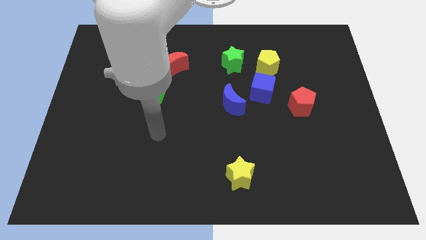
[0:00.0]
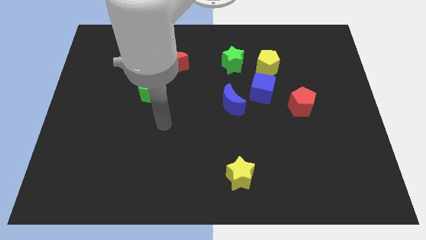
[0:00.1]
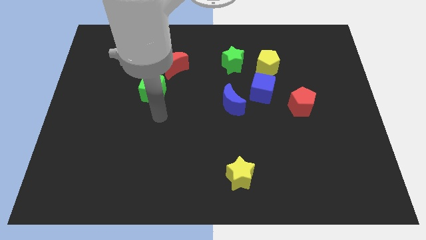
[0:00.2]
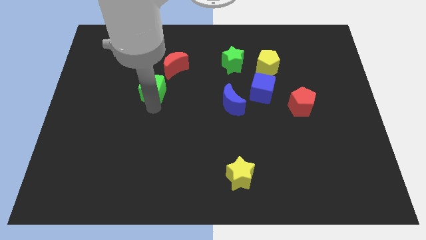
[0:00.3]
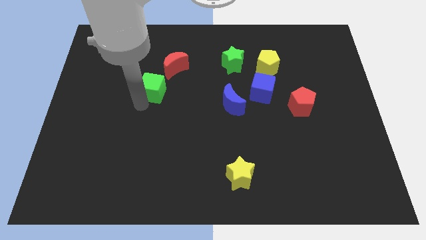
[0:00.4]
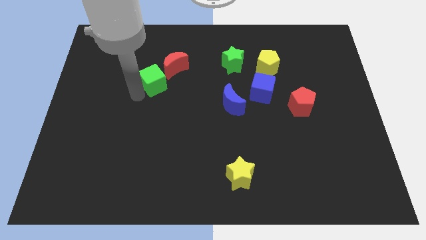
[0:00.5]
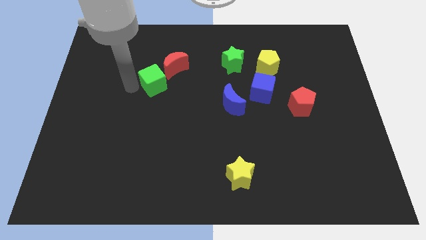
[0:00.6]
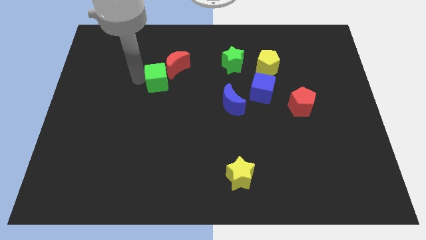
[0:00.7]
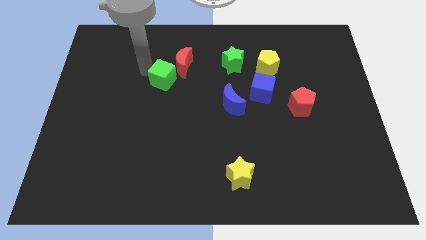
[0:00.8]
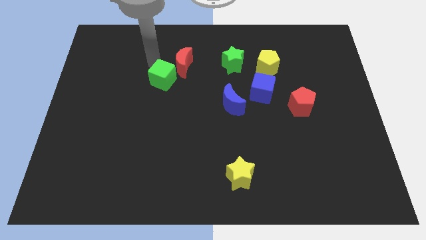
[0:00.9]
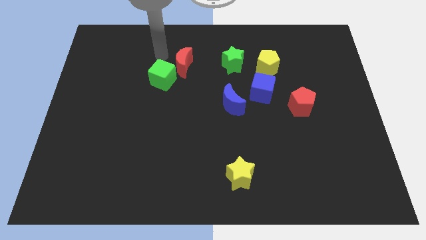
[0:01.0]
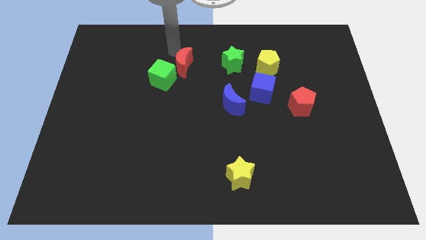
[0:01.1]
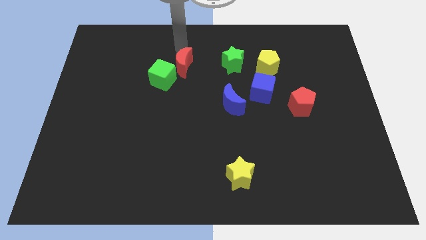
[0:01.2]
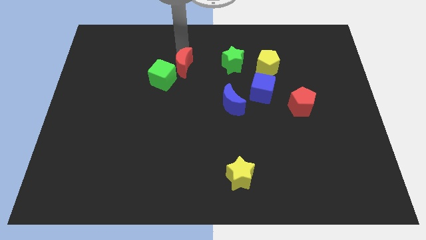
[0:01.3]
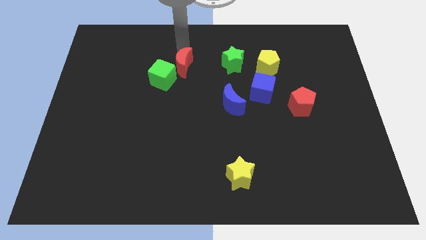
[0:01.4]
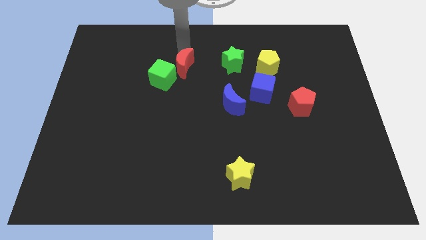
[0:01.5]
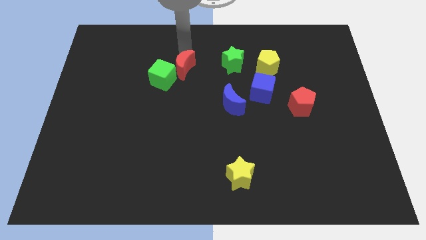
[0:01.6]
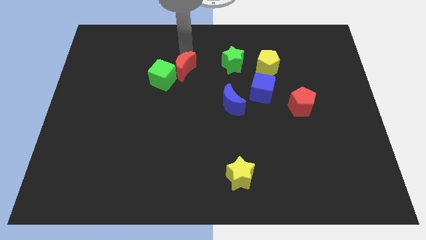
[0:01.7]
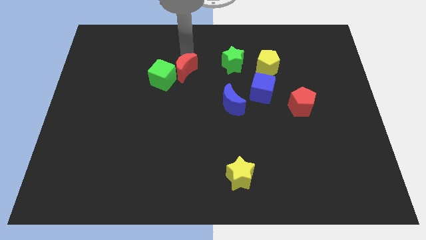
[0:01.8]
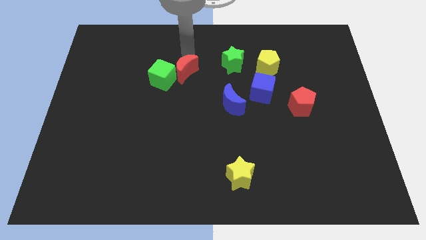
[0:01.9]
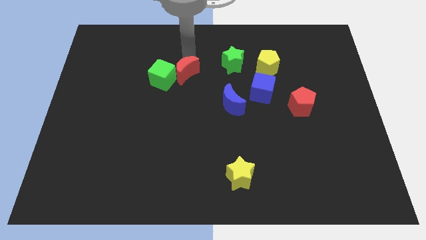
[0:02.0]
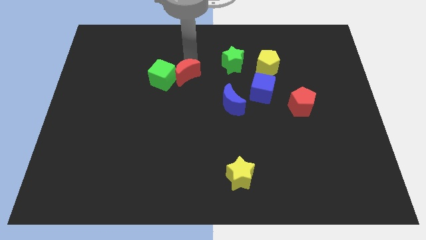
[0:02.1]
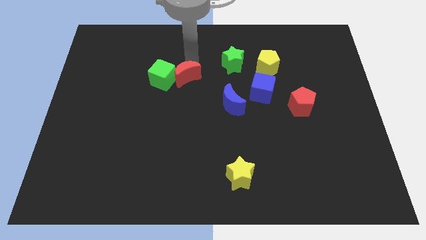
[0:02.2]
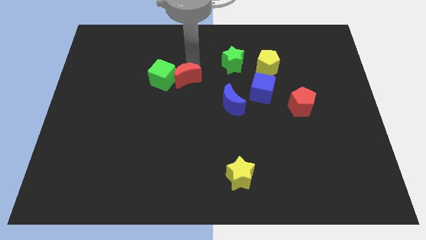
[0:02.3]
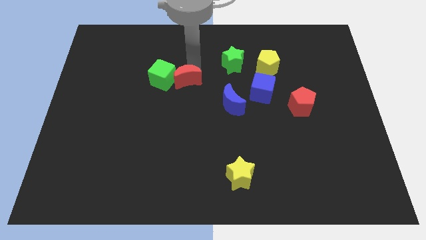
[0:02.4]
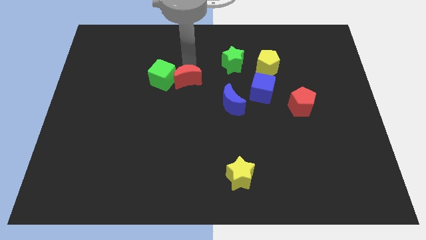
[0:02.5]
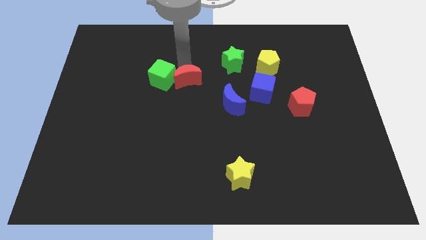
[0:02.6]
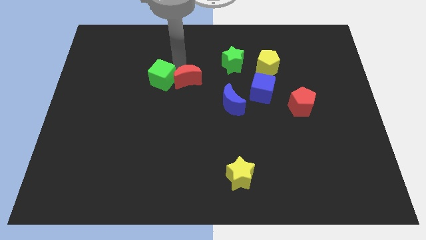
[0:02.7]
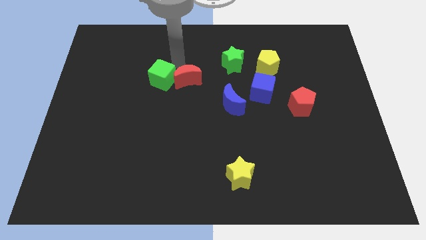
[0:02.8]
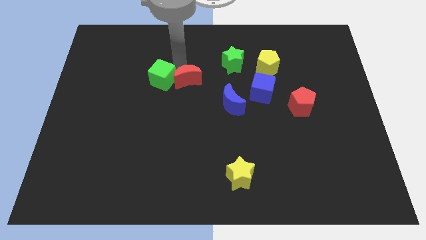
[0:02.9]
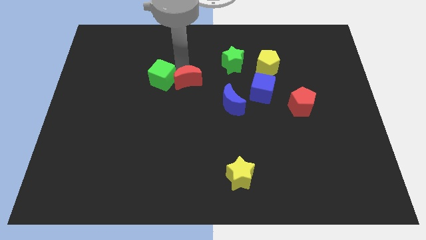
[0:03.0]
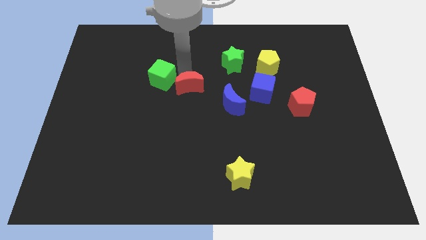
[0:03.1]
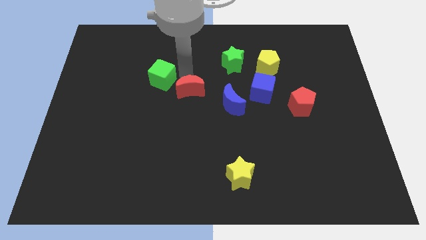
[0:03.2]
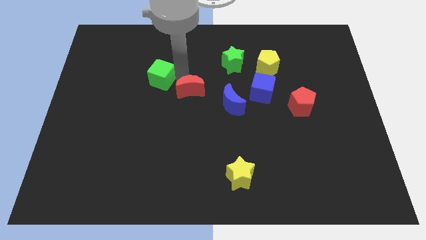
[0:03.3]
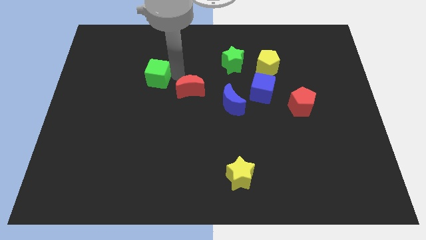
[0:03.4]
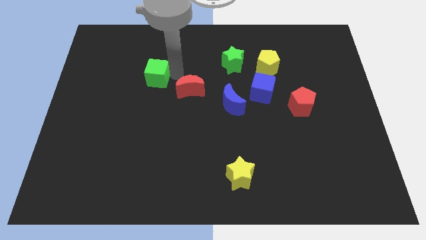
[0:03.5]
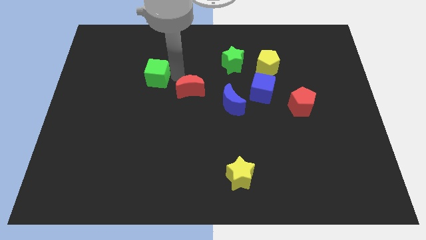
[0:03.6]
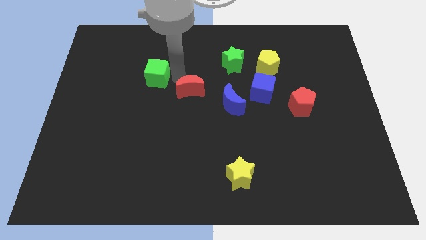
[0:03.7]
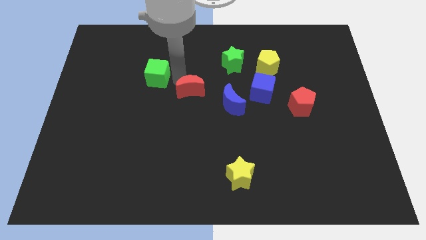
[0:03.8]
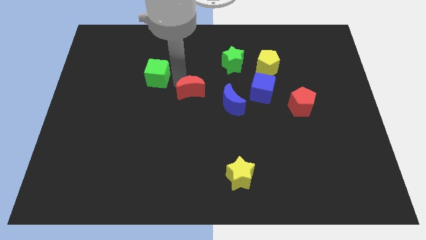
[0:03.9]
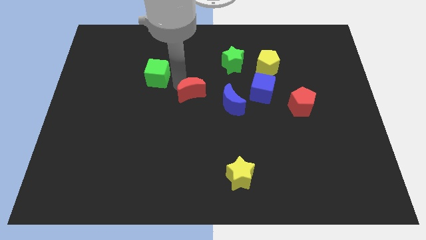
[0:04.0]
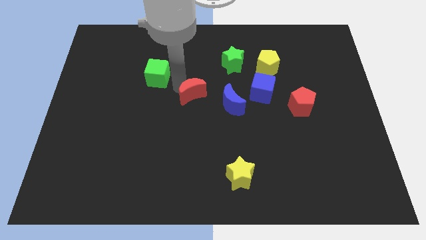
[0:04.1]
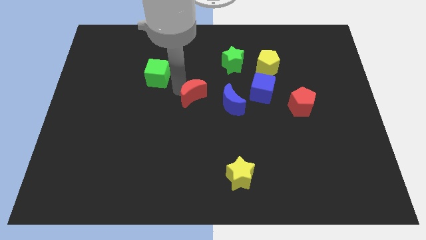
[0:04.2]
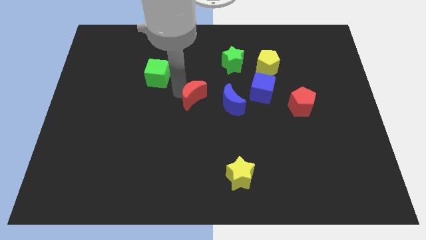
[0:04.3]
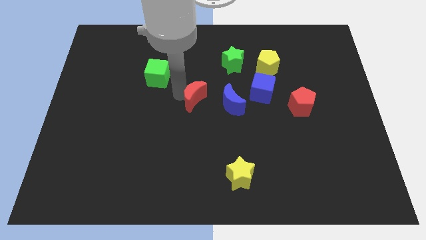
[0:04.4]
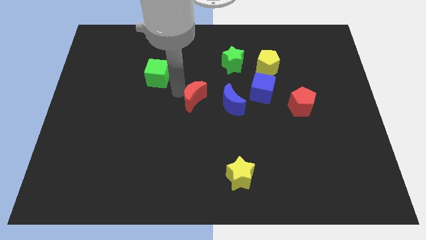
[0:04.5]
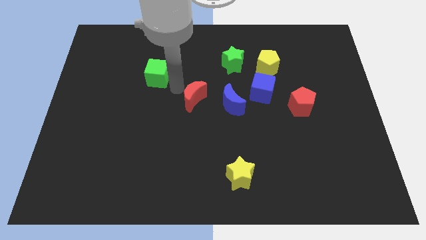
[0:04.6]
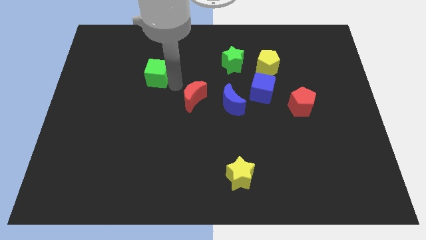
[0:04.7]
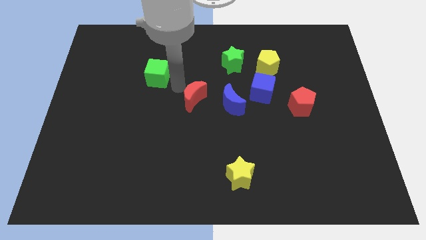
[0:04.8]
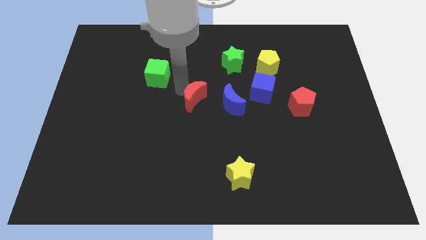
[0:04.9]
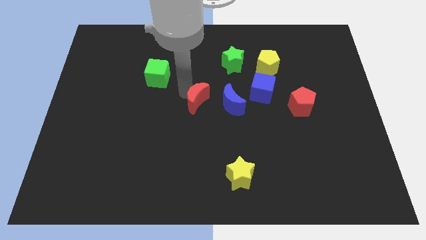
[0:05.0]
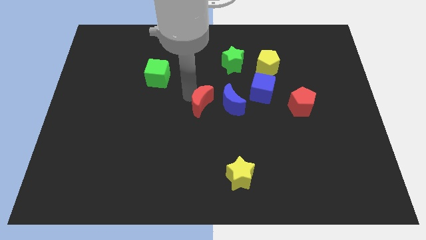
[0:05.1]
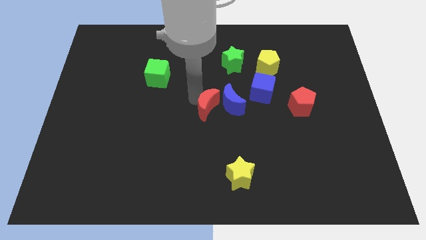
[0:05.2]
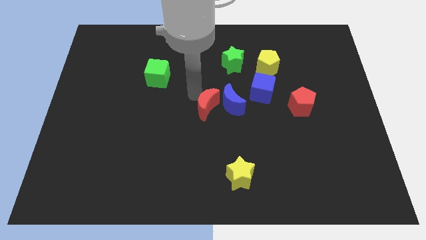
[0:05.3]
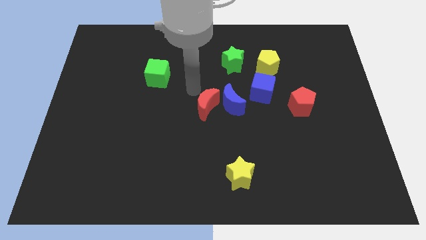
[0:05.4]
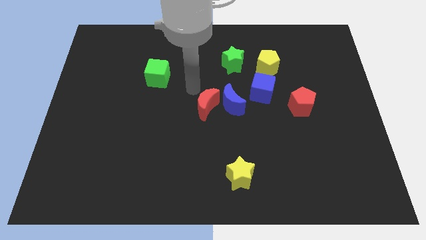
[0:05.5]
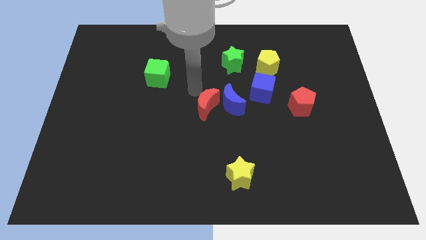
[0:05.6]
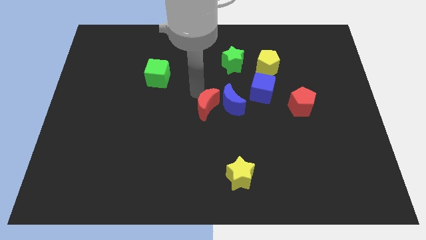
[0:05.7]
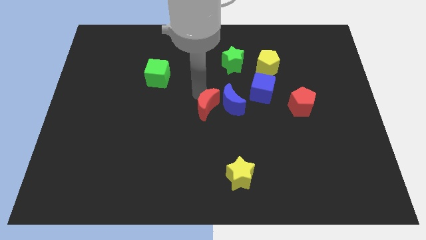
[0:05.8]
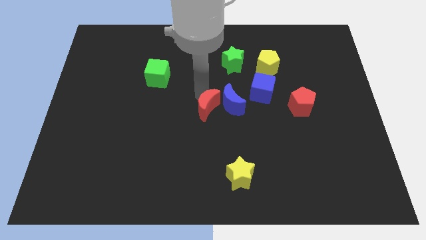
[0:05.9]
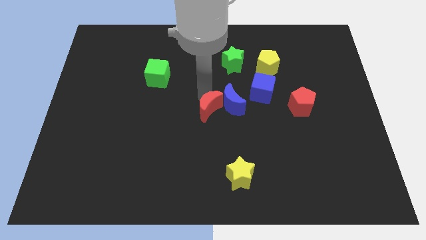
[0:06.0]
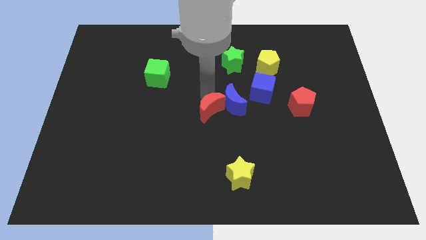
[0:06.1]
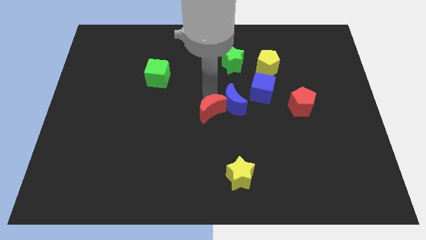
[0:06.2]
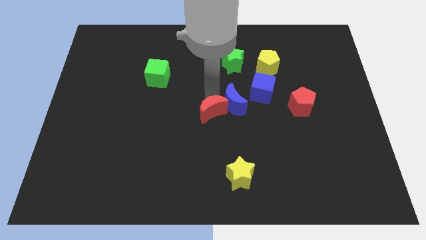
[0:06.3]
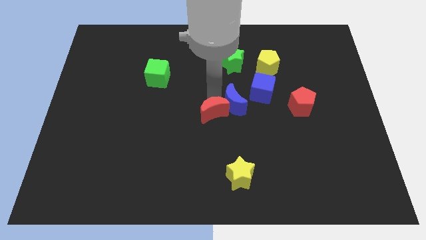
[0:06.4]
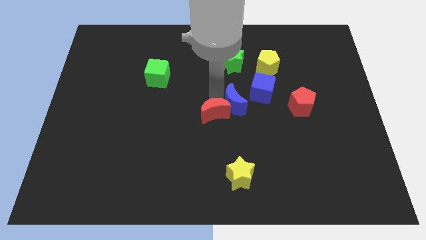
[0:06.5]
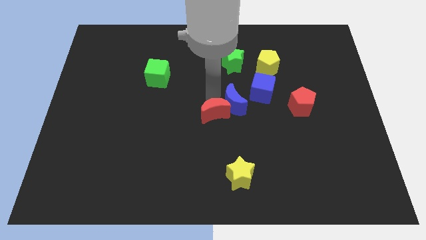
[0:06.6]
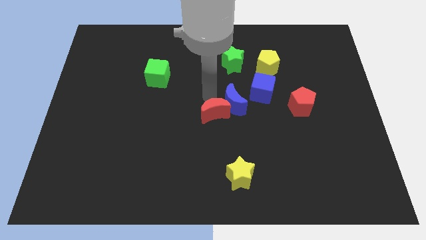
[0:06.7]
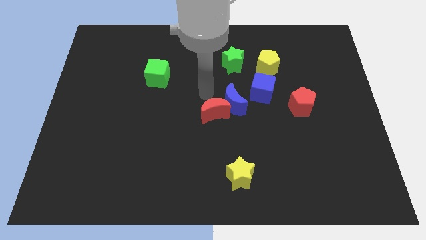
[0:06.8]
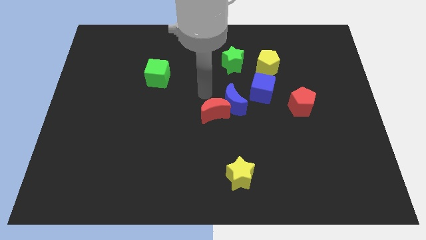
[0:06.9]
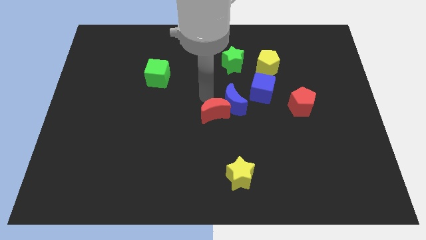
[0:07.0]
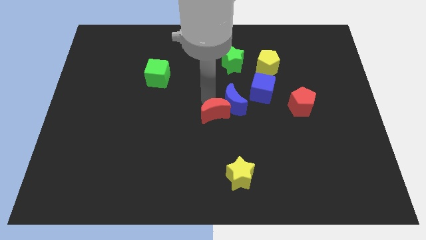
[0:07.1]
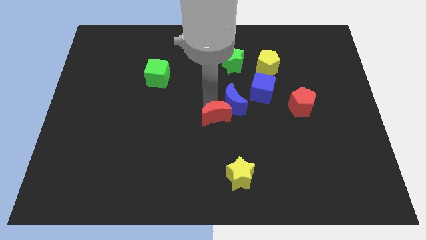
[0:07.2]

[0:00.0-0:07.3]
put the red moon below the blue moon
